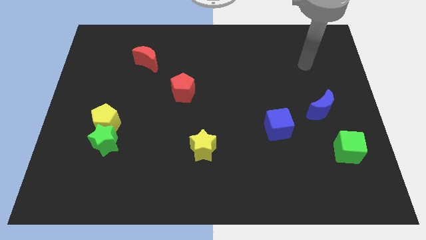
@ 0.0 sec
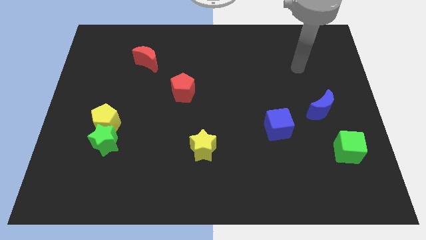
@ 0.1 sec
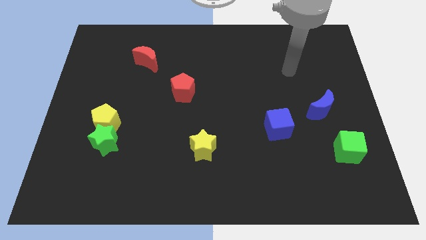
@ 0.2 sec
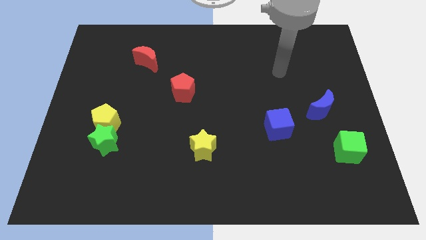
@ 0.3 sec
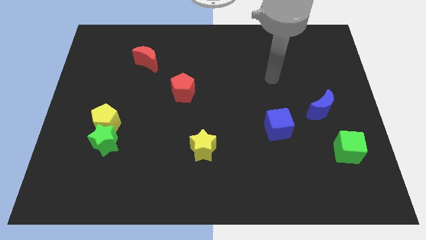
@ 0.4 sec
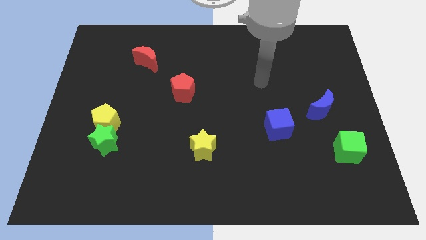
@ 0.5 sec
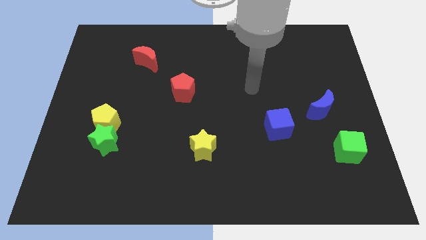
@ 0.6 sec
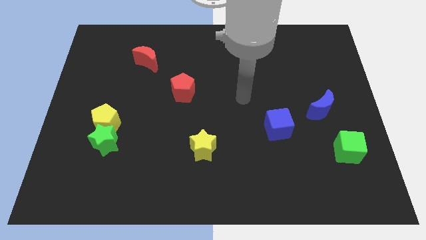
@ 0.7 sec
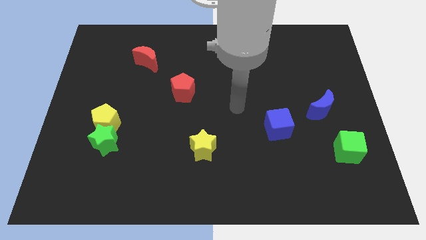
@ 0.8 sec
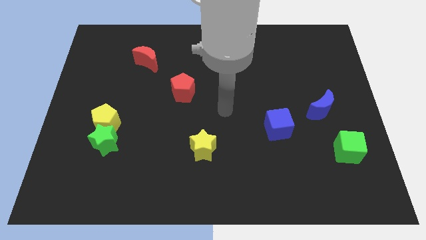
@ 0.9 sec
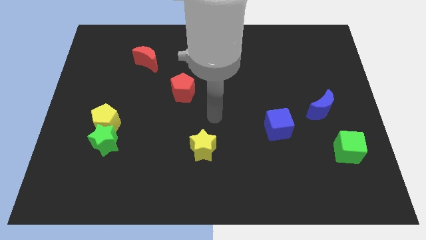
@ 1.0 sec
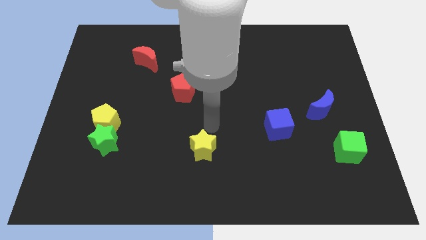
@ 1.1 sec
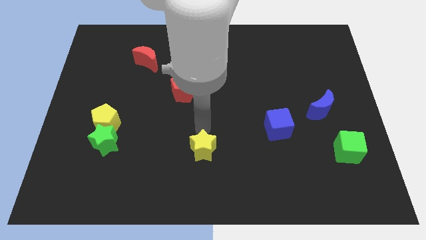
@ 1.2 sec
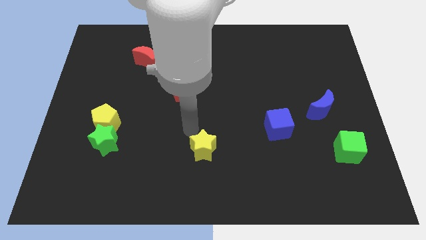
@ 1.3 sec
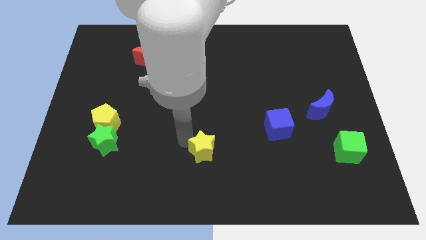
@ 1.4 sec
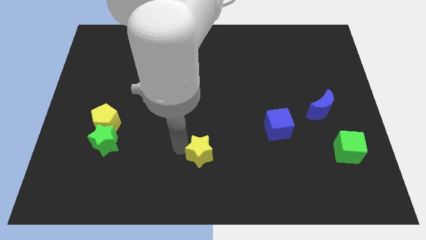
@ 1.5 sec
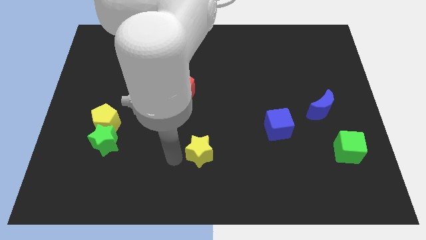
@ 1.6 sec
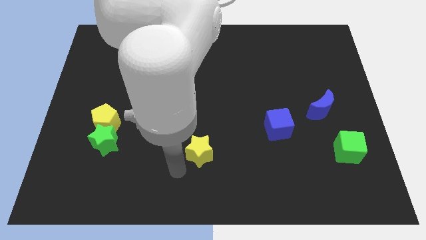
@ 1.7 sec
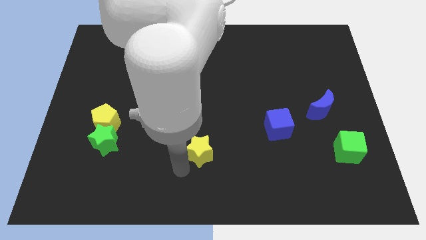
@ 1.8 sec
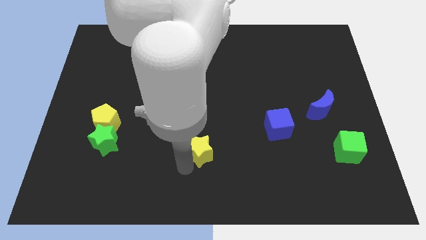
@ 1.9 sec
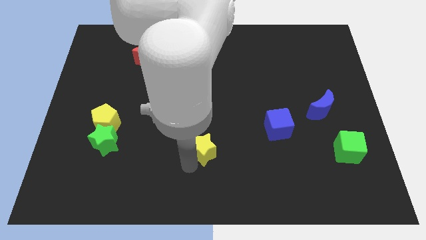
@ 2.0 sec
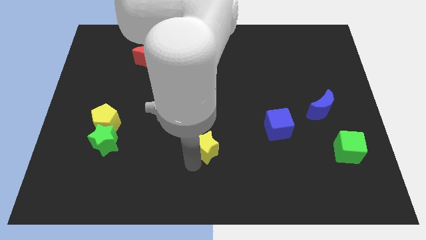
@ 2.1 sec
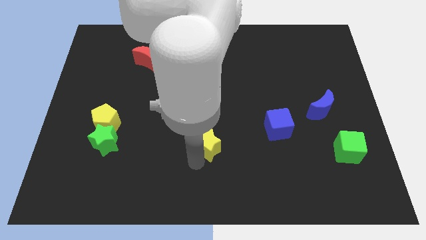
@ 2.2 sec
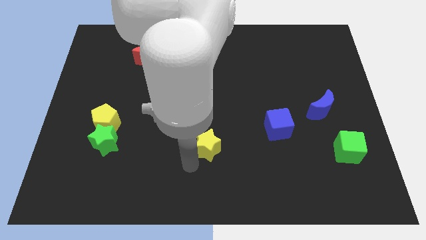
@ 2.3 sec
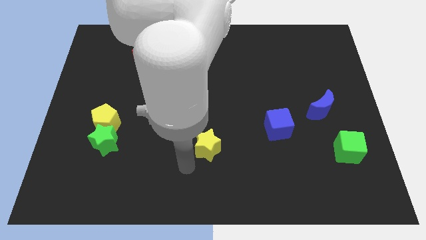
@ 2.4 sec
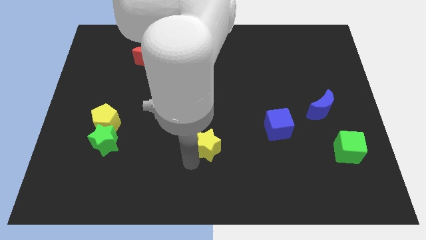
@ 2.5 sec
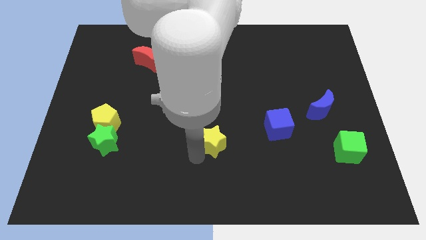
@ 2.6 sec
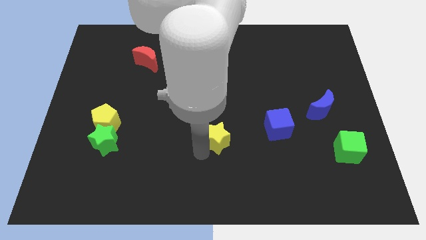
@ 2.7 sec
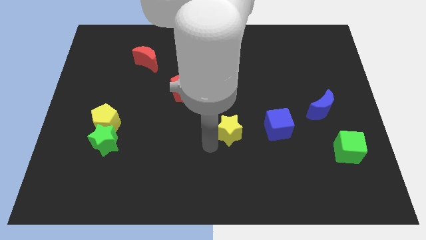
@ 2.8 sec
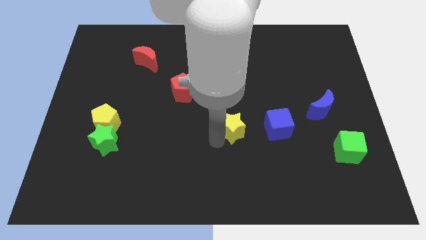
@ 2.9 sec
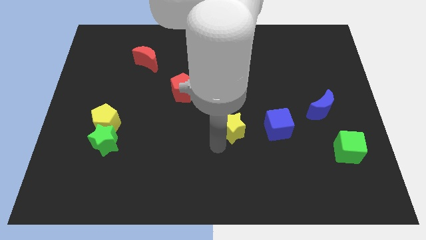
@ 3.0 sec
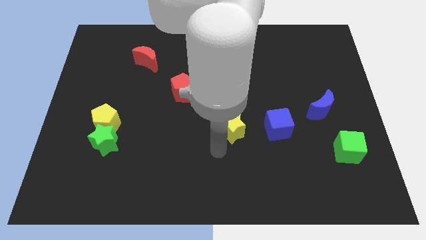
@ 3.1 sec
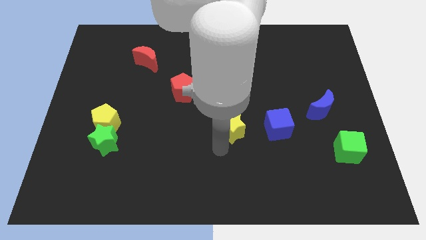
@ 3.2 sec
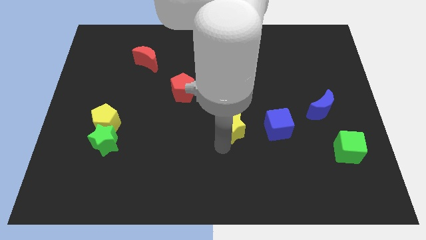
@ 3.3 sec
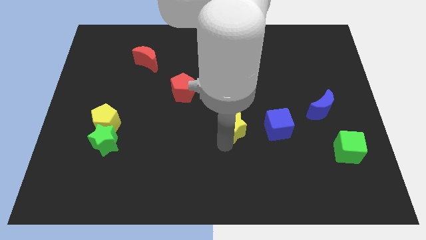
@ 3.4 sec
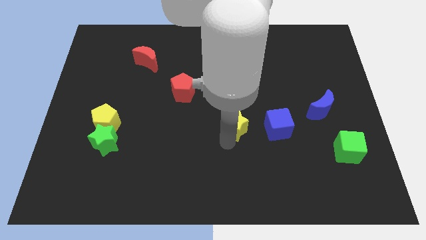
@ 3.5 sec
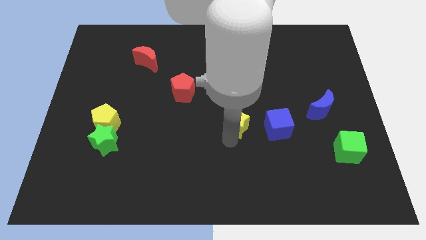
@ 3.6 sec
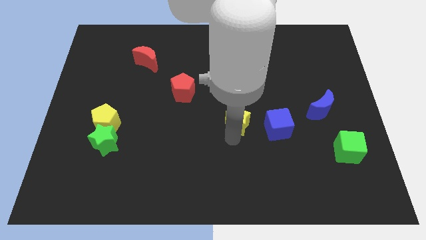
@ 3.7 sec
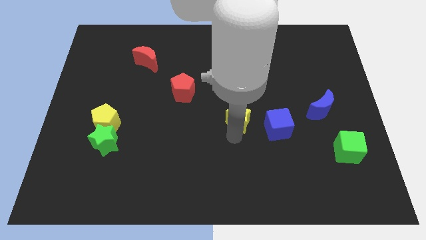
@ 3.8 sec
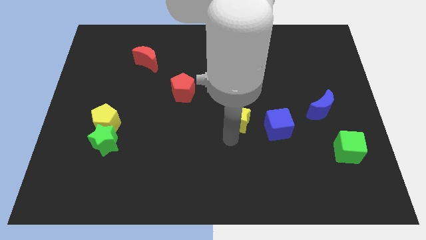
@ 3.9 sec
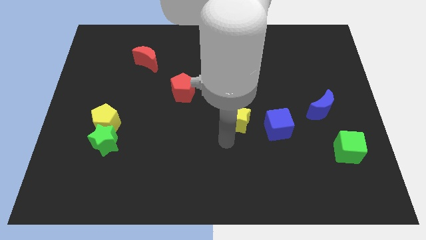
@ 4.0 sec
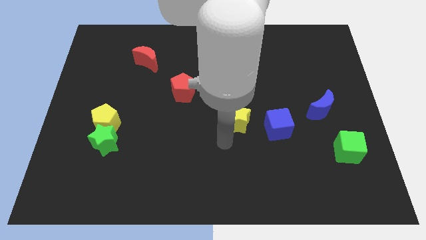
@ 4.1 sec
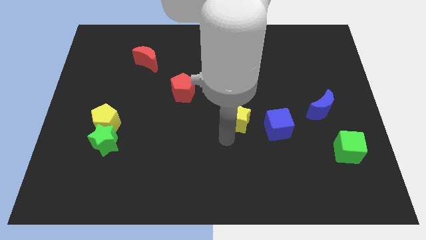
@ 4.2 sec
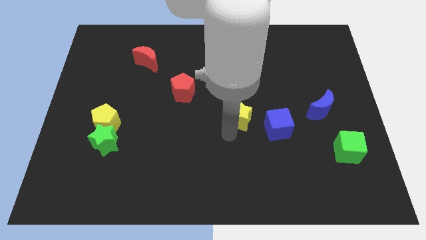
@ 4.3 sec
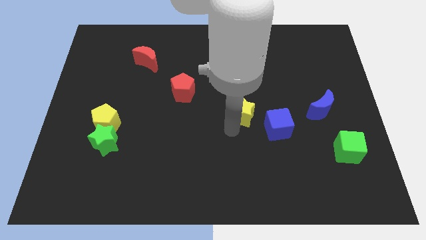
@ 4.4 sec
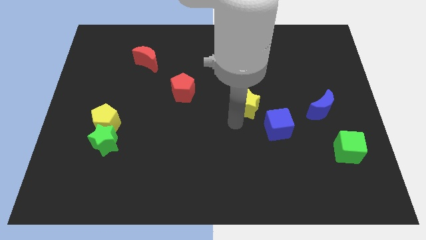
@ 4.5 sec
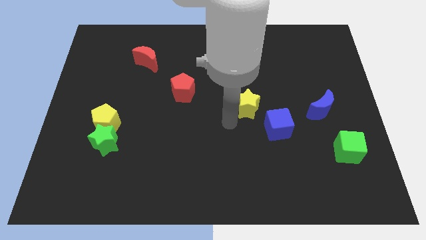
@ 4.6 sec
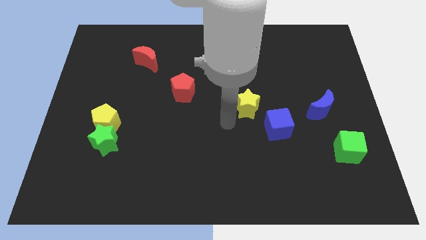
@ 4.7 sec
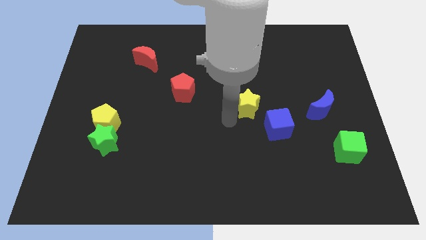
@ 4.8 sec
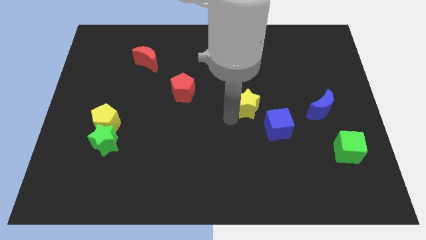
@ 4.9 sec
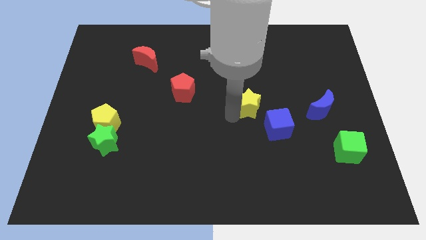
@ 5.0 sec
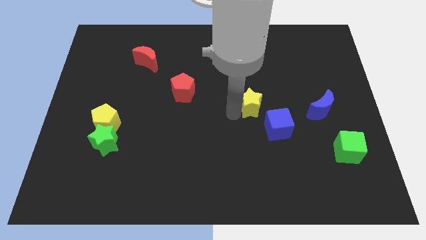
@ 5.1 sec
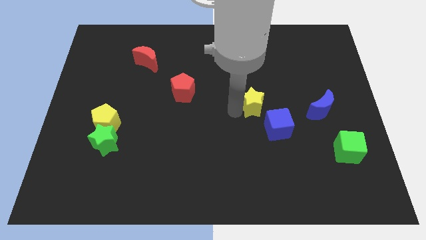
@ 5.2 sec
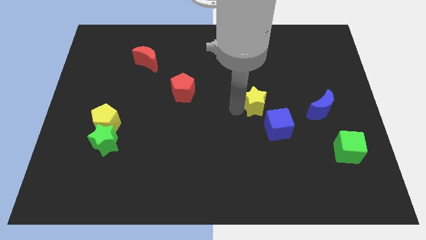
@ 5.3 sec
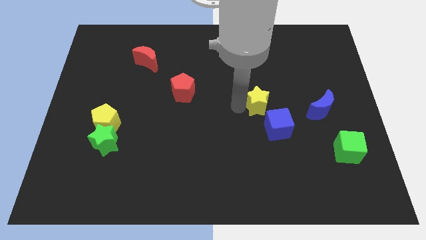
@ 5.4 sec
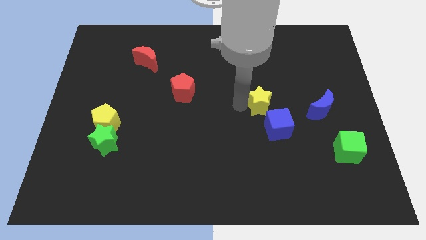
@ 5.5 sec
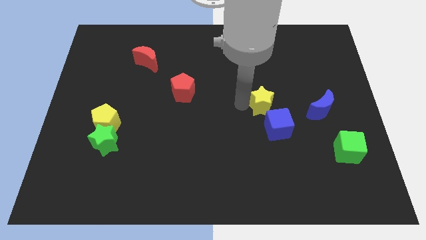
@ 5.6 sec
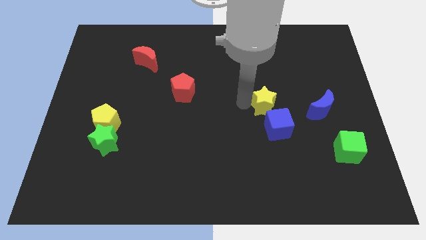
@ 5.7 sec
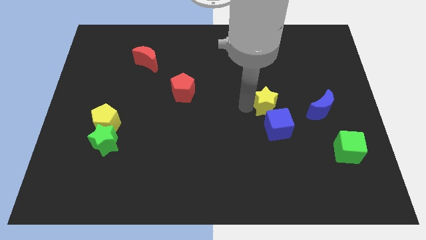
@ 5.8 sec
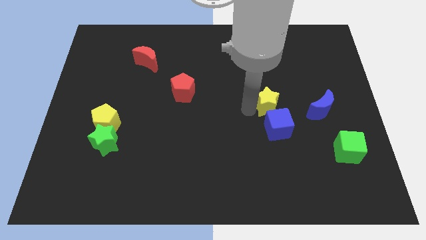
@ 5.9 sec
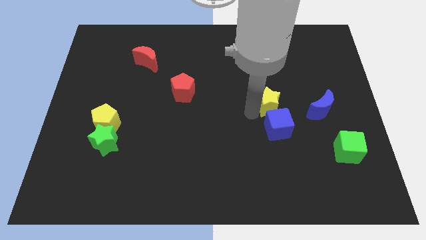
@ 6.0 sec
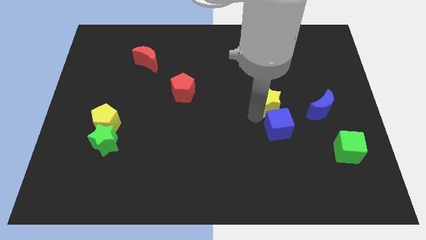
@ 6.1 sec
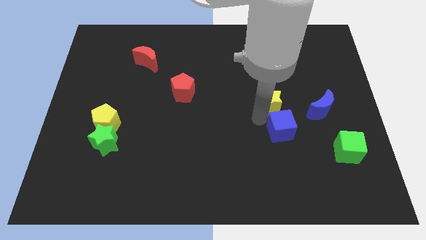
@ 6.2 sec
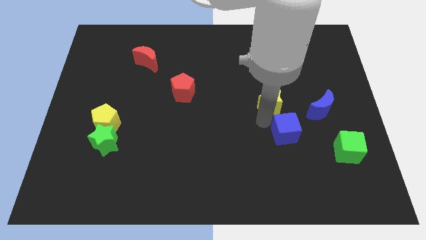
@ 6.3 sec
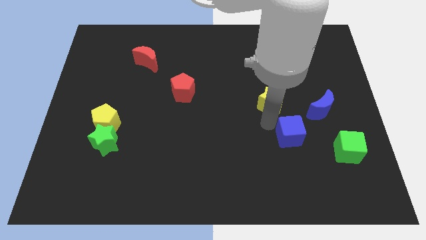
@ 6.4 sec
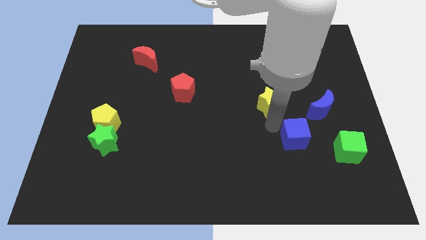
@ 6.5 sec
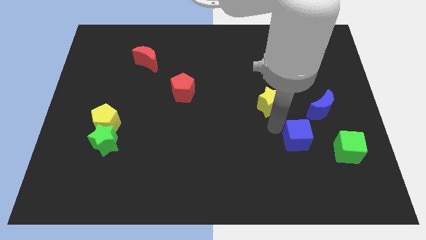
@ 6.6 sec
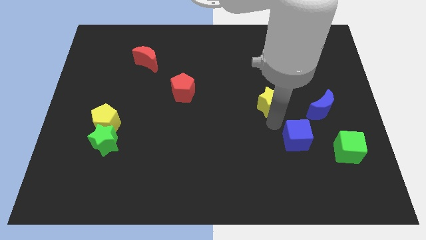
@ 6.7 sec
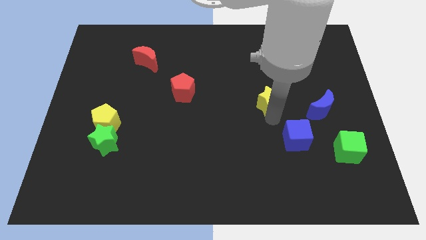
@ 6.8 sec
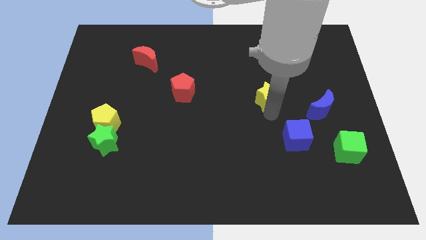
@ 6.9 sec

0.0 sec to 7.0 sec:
push the yellow star upwards and then to the right

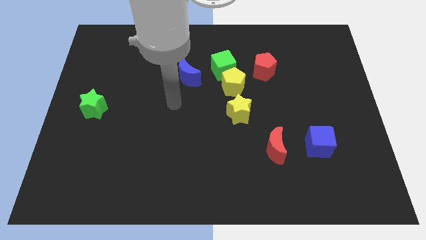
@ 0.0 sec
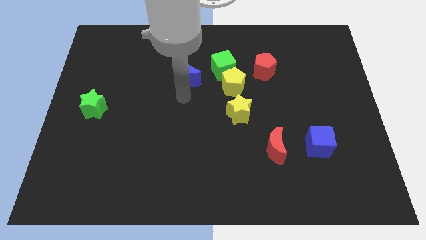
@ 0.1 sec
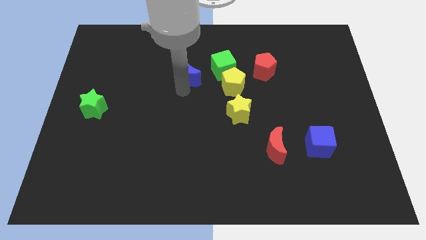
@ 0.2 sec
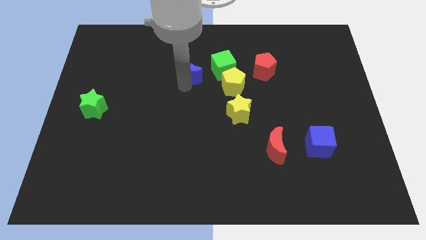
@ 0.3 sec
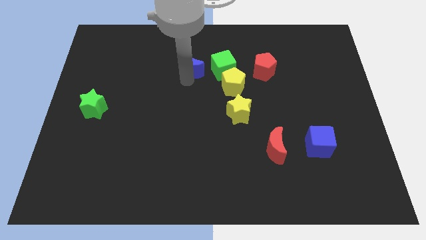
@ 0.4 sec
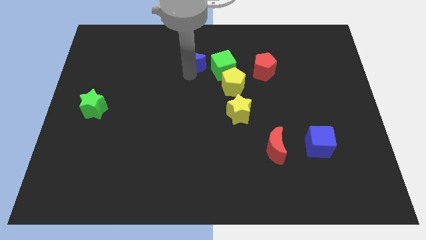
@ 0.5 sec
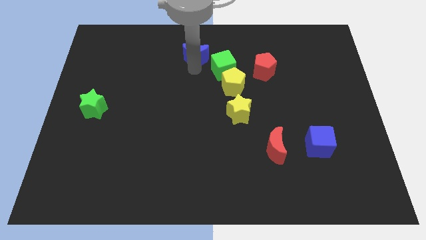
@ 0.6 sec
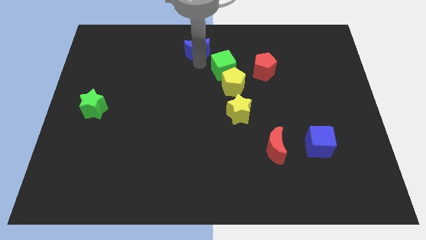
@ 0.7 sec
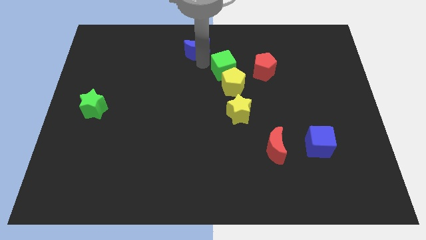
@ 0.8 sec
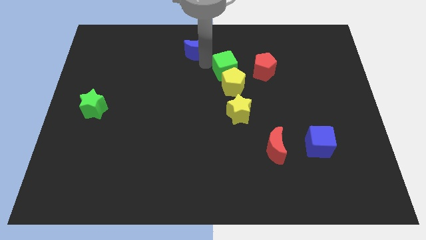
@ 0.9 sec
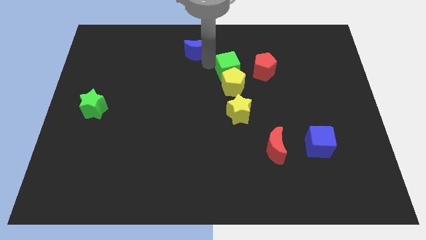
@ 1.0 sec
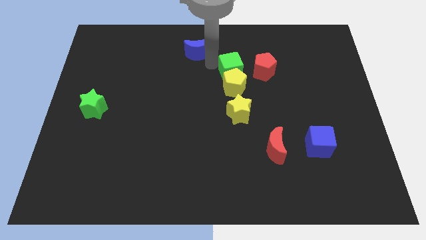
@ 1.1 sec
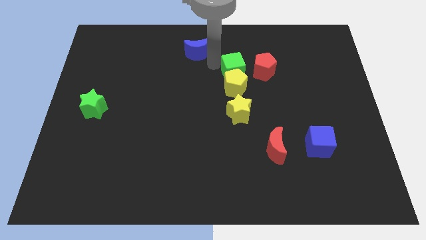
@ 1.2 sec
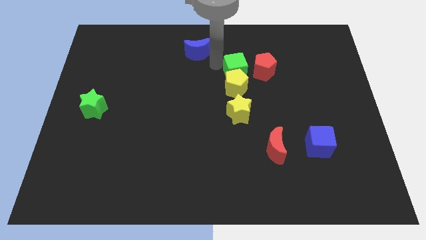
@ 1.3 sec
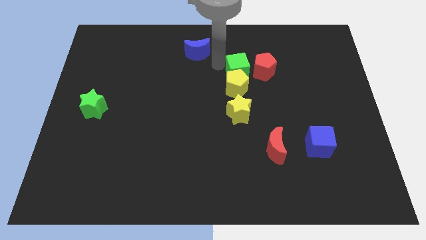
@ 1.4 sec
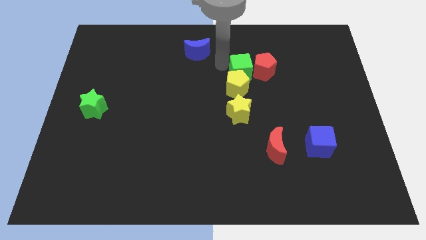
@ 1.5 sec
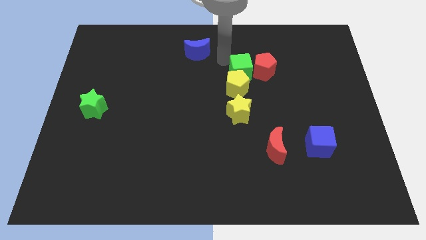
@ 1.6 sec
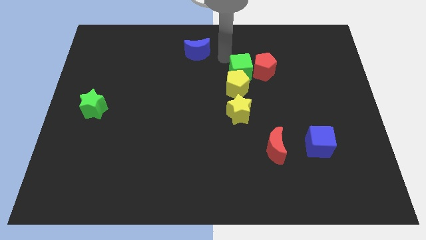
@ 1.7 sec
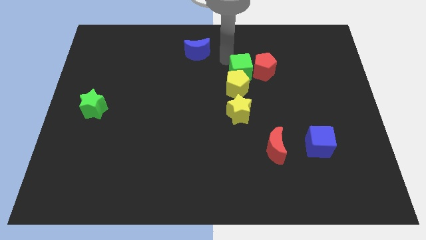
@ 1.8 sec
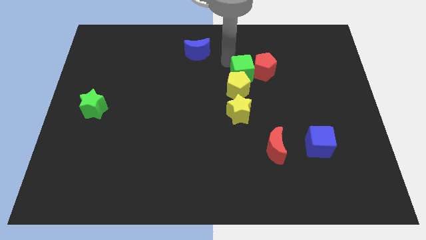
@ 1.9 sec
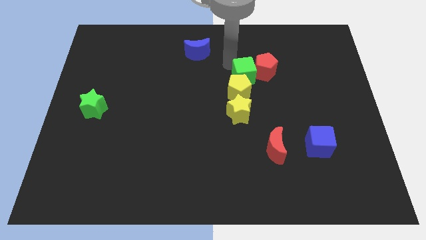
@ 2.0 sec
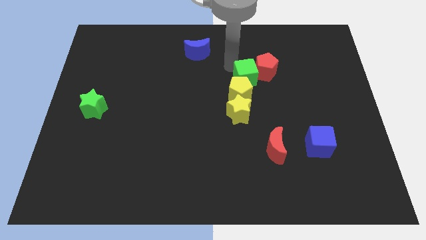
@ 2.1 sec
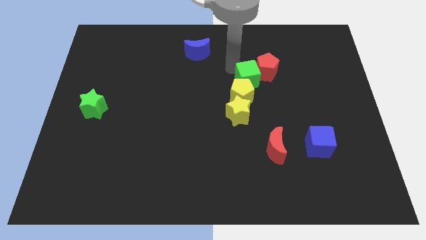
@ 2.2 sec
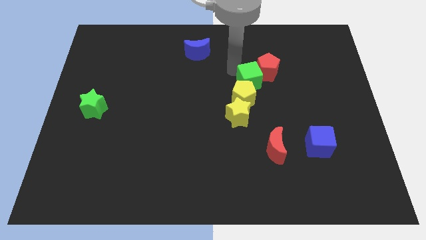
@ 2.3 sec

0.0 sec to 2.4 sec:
move the green cube a little bit down and then to the right
